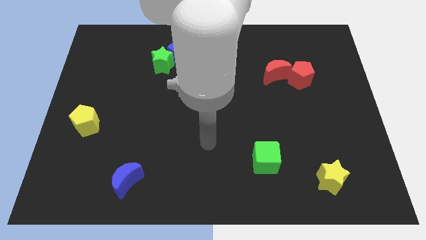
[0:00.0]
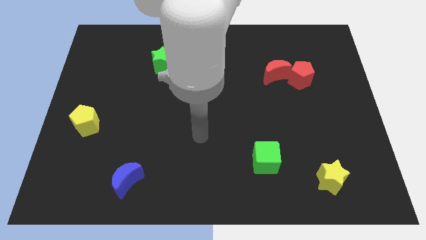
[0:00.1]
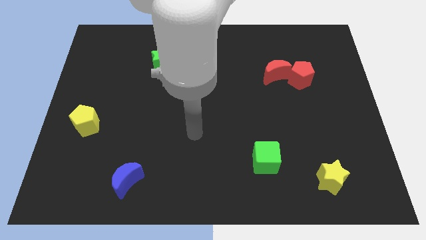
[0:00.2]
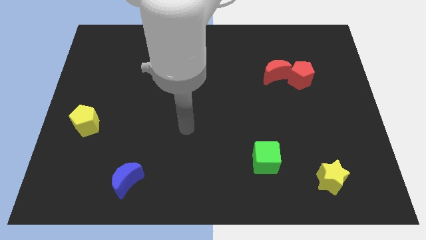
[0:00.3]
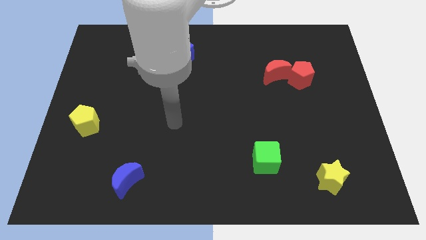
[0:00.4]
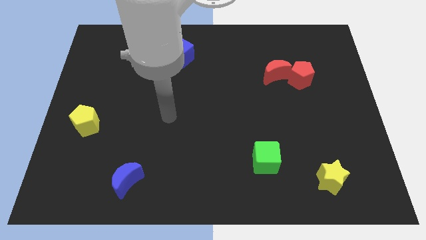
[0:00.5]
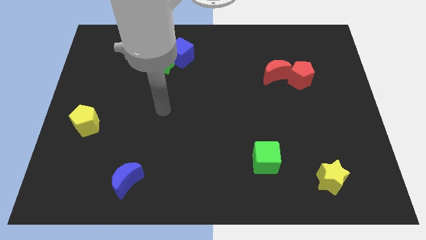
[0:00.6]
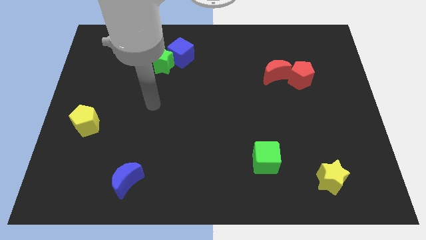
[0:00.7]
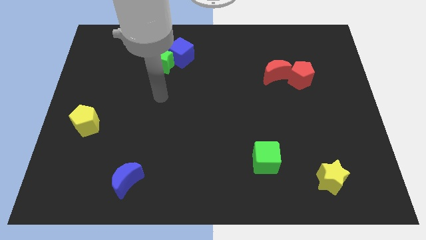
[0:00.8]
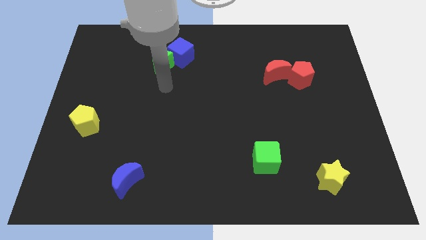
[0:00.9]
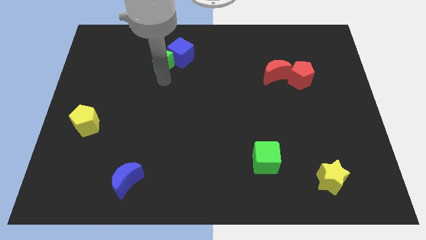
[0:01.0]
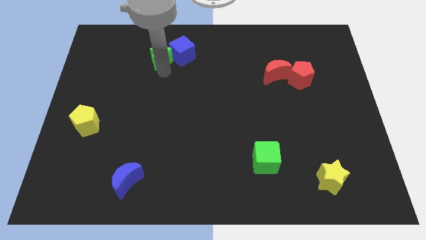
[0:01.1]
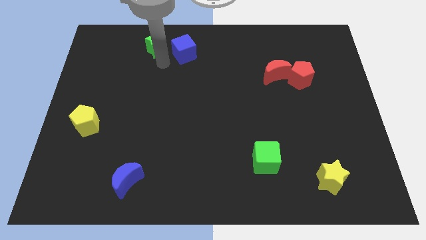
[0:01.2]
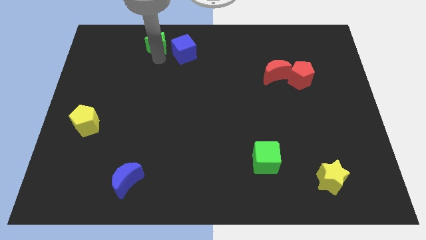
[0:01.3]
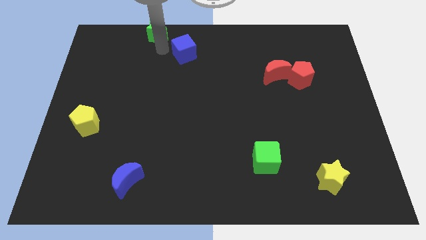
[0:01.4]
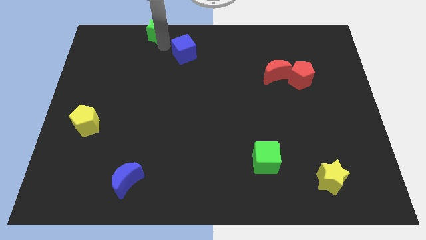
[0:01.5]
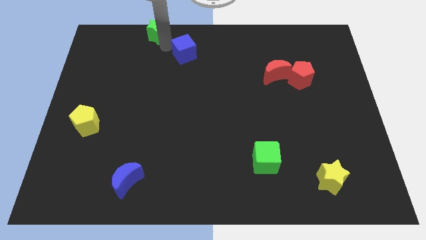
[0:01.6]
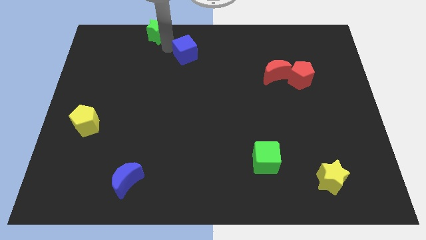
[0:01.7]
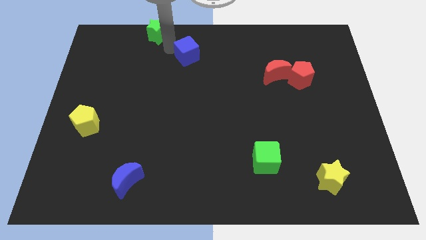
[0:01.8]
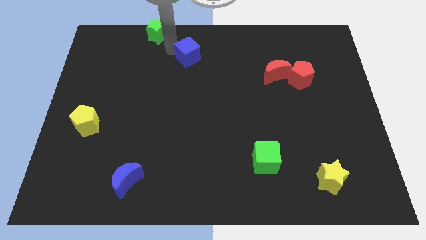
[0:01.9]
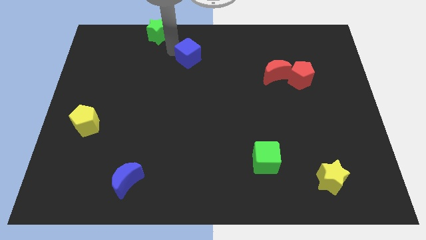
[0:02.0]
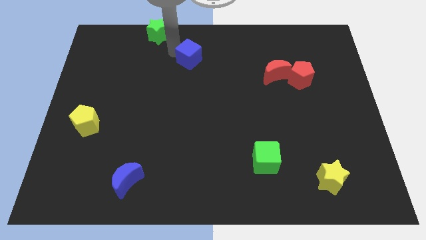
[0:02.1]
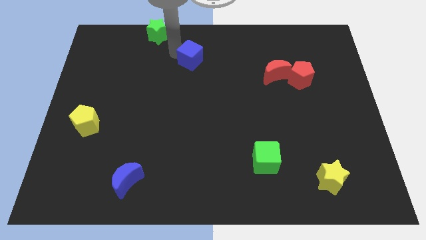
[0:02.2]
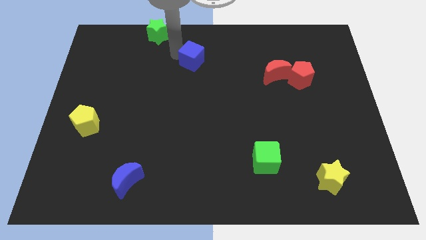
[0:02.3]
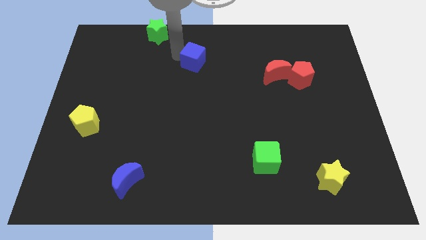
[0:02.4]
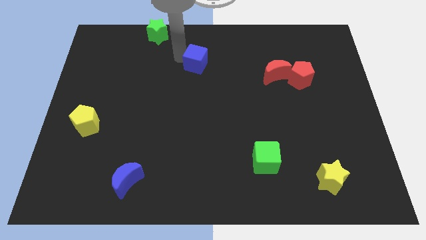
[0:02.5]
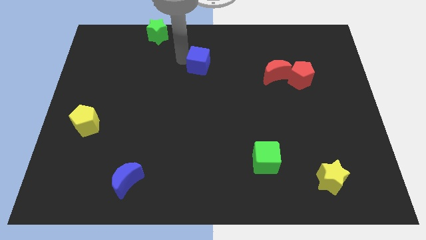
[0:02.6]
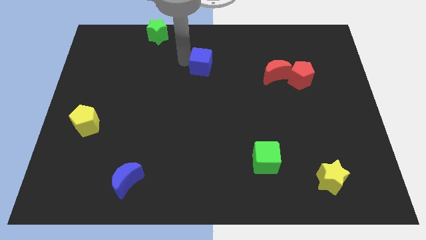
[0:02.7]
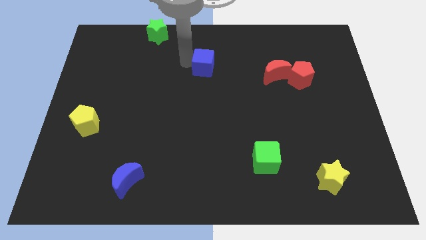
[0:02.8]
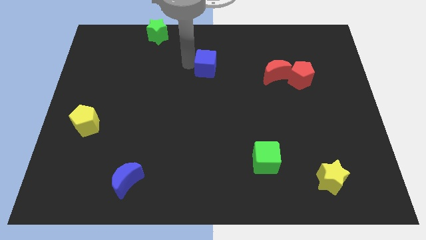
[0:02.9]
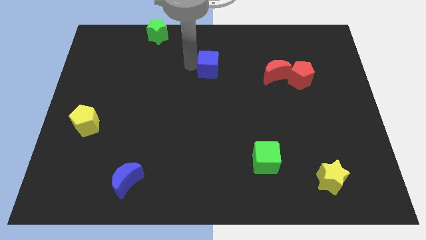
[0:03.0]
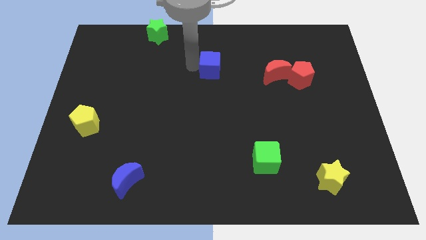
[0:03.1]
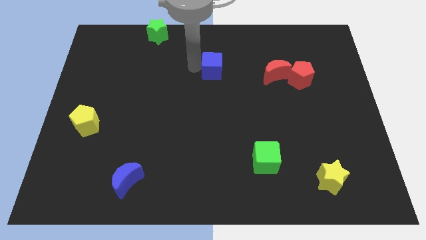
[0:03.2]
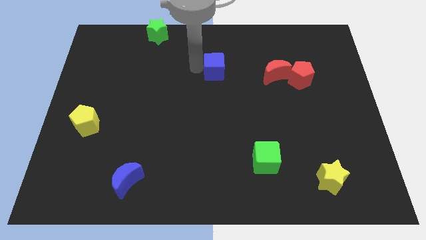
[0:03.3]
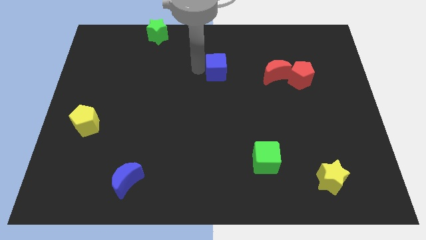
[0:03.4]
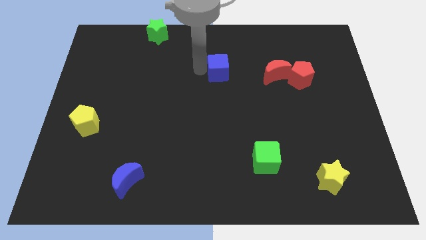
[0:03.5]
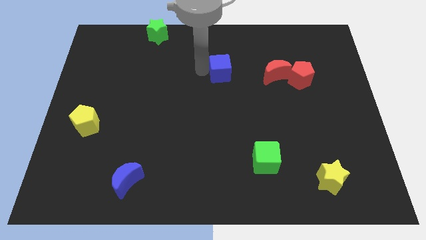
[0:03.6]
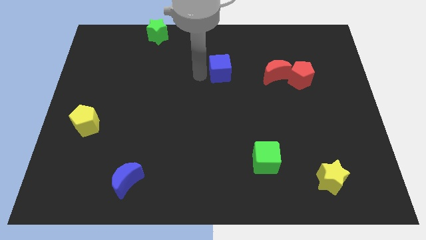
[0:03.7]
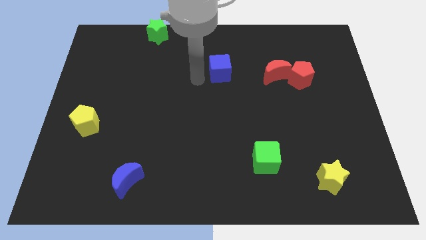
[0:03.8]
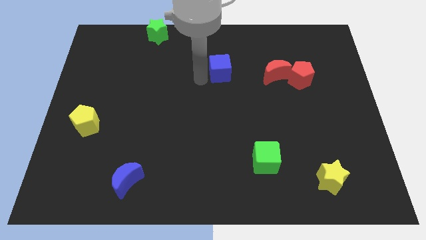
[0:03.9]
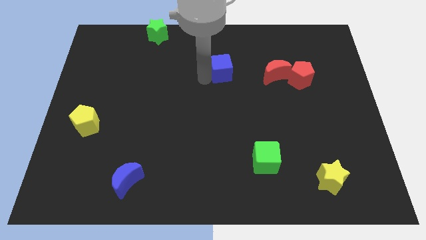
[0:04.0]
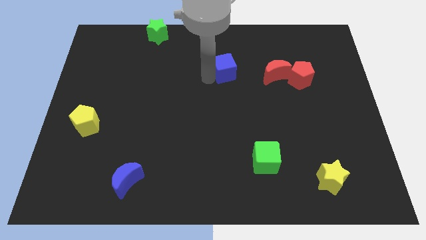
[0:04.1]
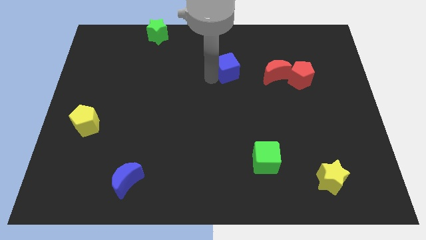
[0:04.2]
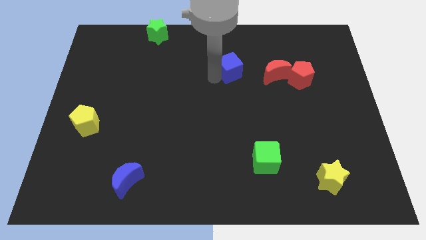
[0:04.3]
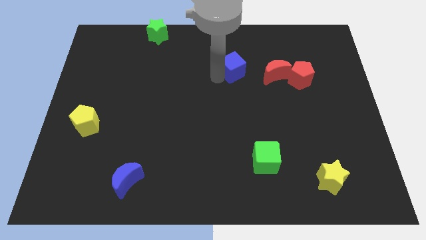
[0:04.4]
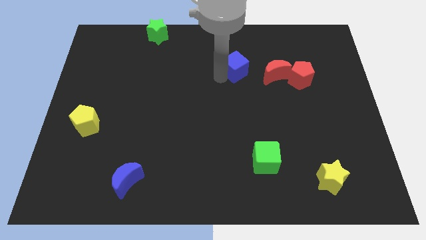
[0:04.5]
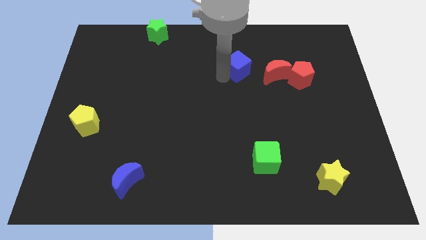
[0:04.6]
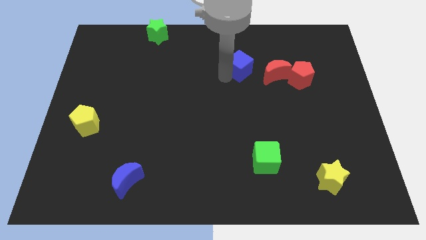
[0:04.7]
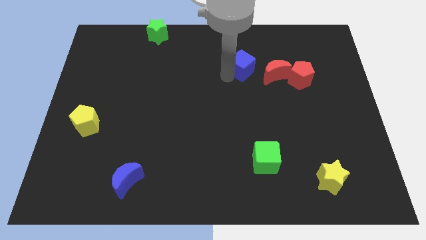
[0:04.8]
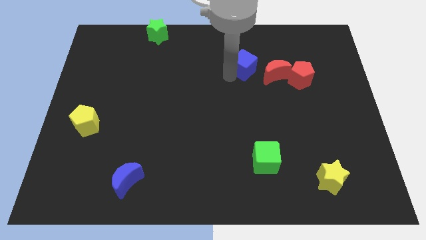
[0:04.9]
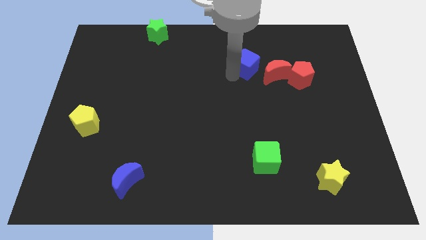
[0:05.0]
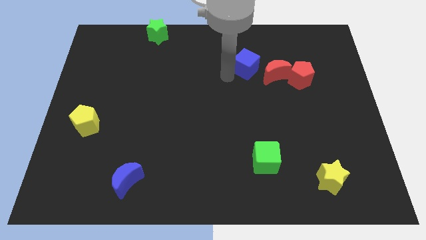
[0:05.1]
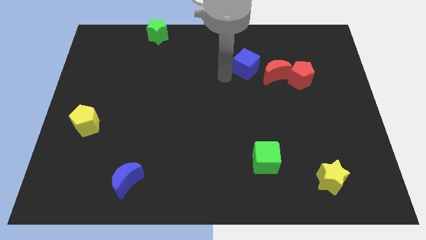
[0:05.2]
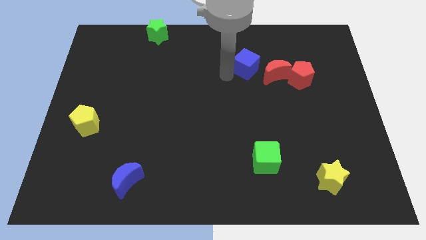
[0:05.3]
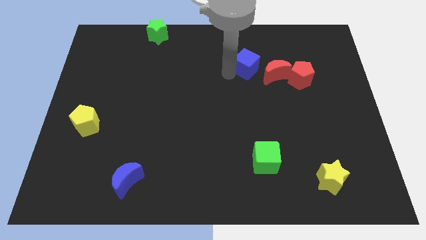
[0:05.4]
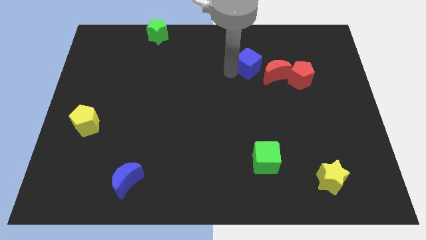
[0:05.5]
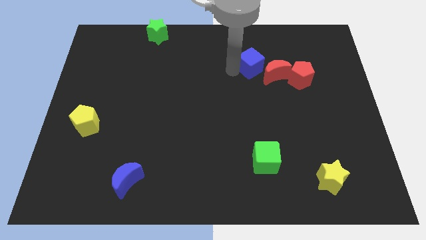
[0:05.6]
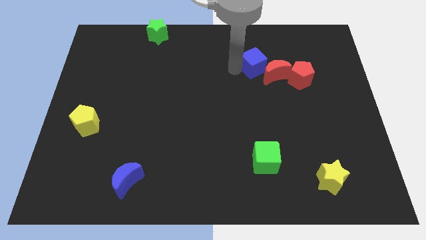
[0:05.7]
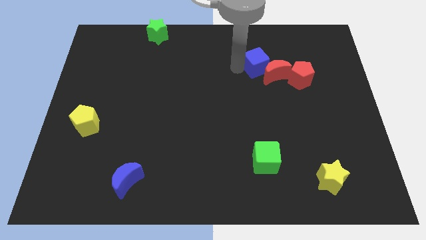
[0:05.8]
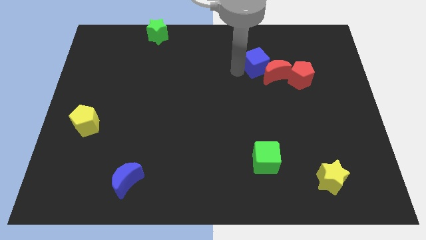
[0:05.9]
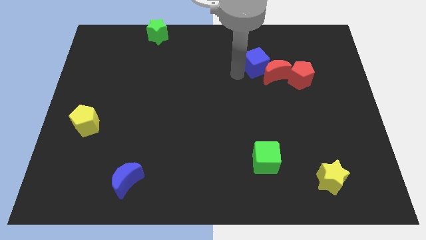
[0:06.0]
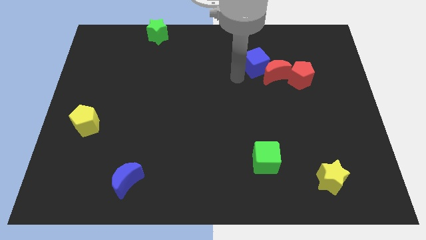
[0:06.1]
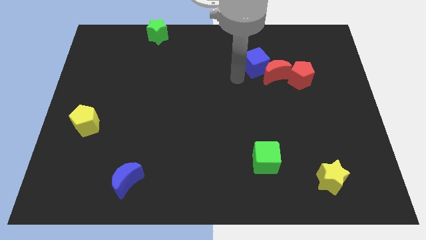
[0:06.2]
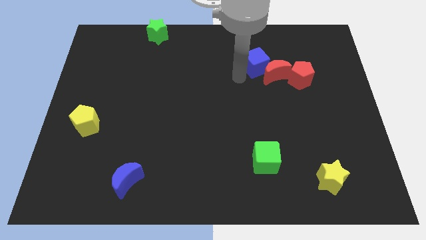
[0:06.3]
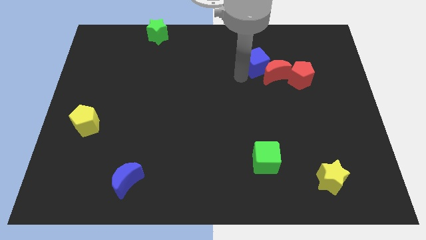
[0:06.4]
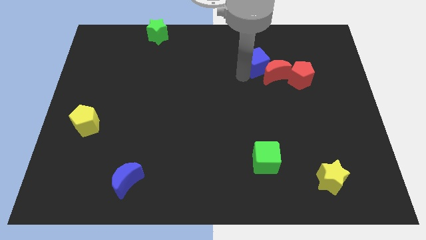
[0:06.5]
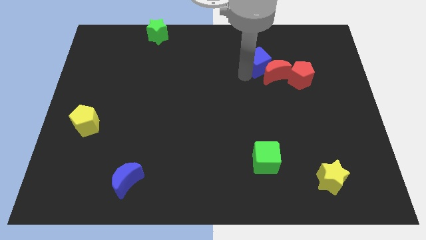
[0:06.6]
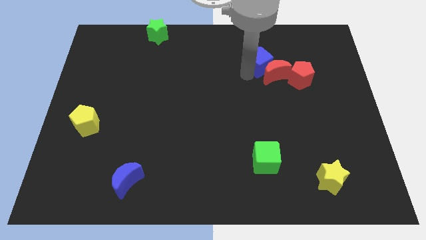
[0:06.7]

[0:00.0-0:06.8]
push the blue cube to the right

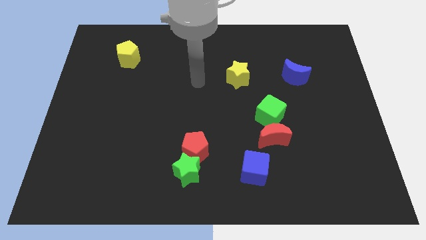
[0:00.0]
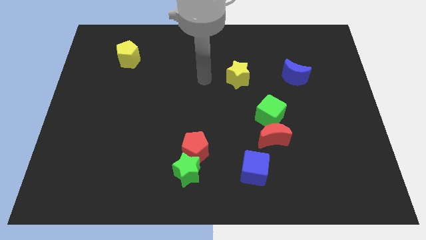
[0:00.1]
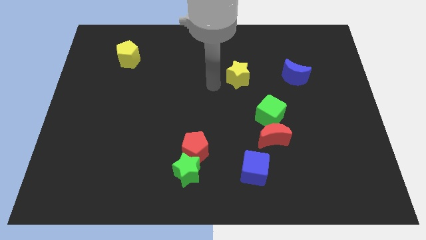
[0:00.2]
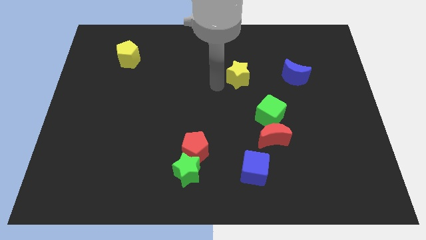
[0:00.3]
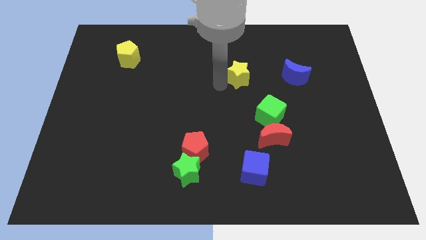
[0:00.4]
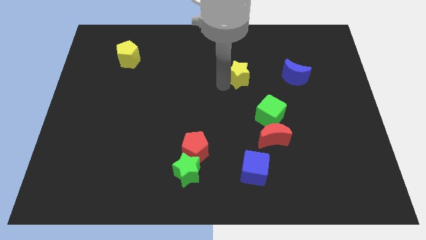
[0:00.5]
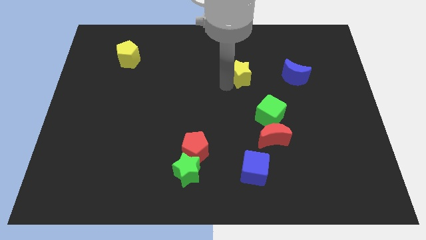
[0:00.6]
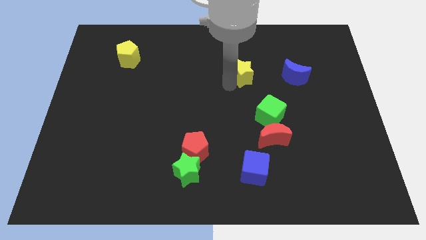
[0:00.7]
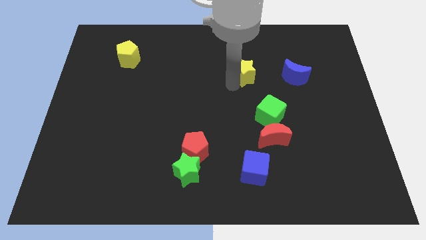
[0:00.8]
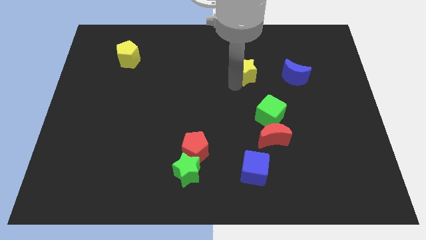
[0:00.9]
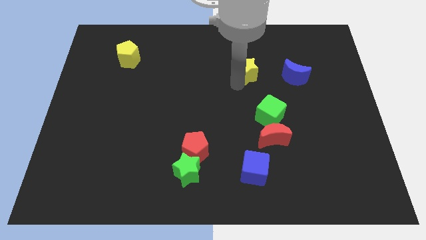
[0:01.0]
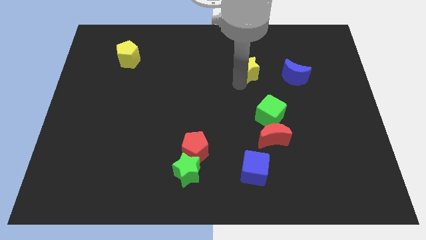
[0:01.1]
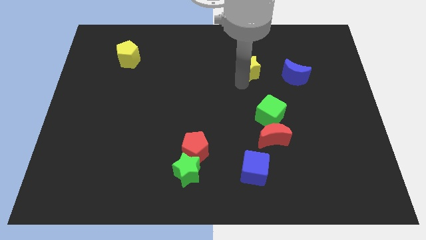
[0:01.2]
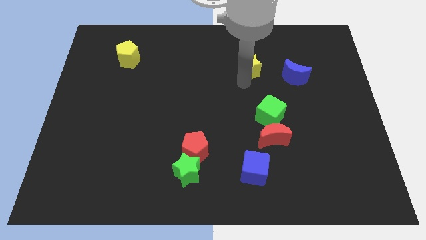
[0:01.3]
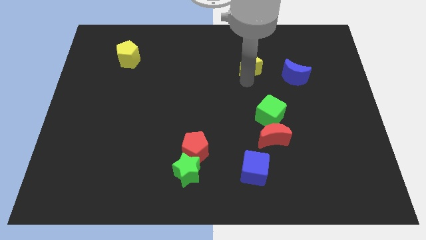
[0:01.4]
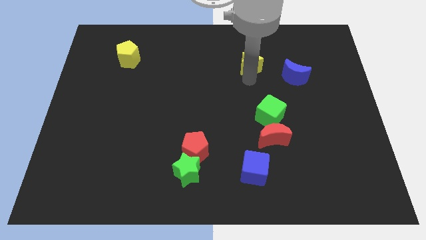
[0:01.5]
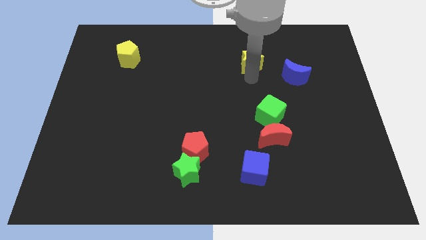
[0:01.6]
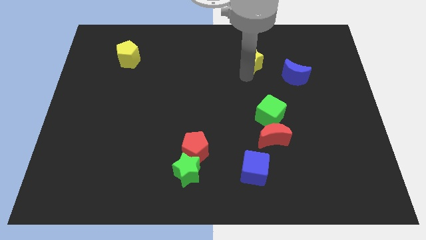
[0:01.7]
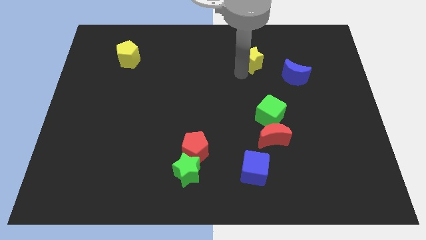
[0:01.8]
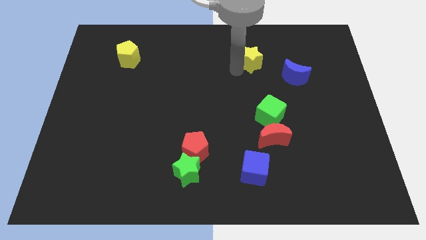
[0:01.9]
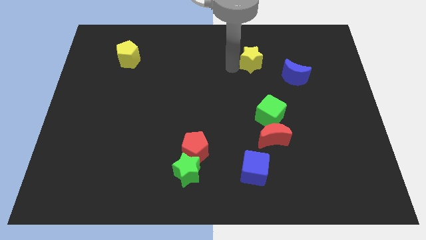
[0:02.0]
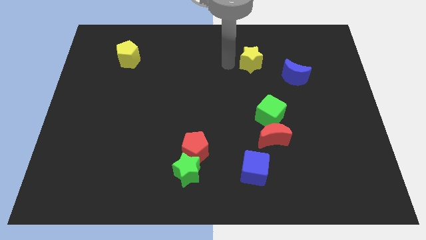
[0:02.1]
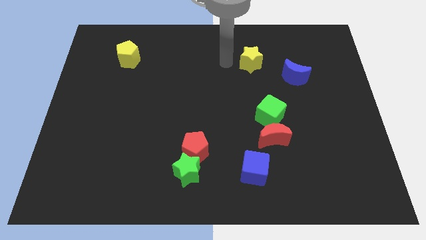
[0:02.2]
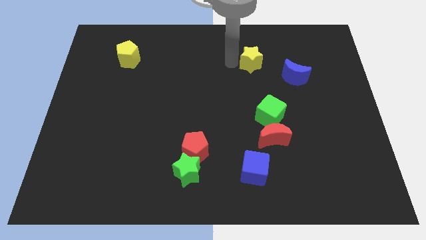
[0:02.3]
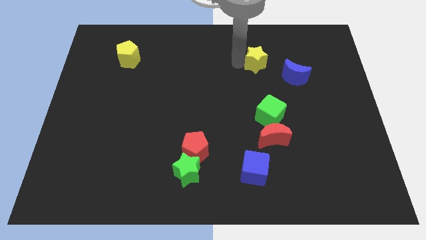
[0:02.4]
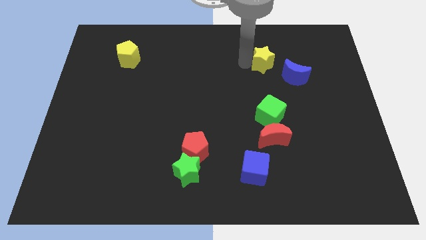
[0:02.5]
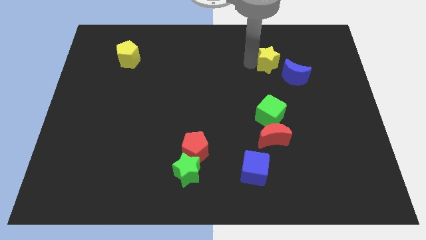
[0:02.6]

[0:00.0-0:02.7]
slightly push the yellow star right
